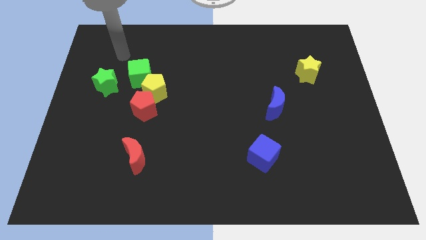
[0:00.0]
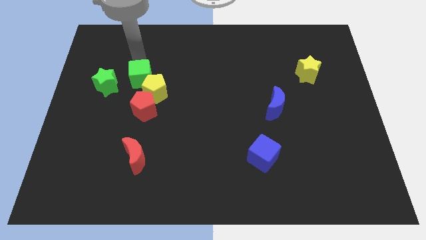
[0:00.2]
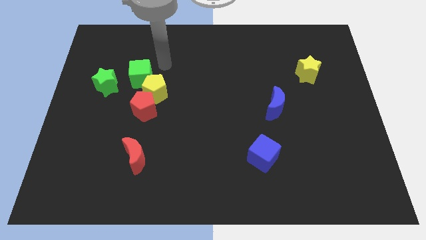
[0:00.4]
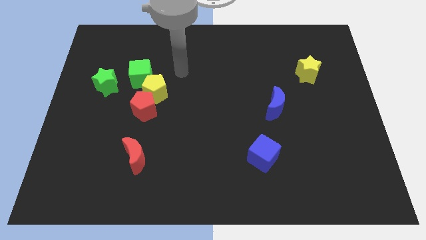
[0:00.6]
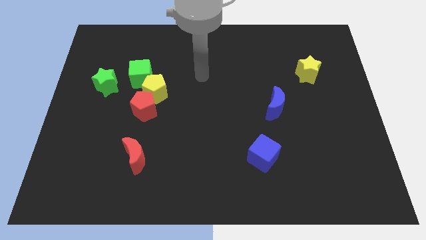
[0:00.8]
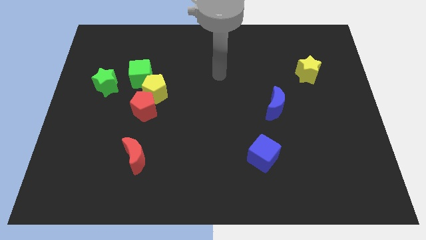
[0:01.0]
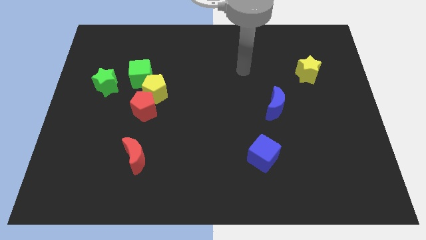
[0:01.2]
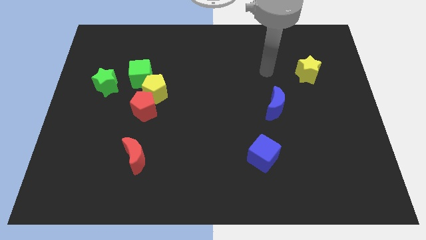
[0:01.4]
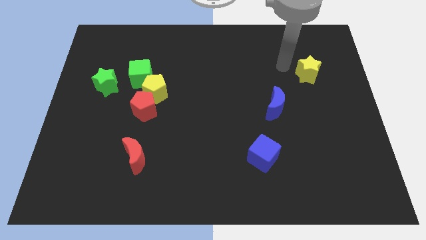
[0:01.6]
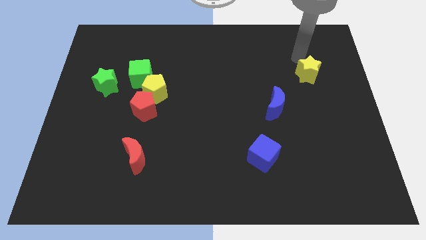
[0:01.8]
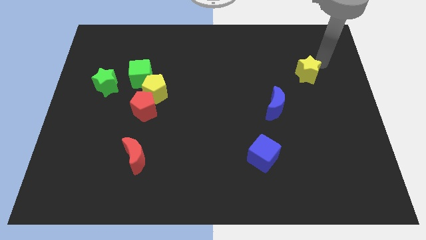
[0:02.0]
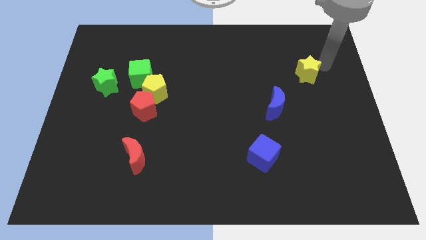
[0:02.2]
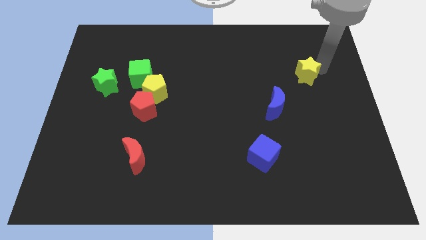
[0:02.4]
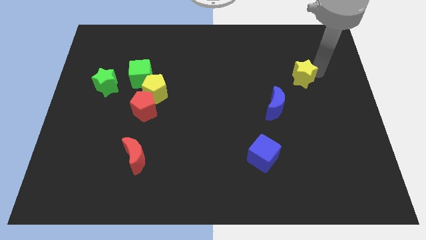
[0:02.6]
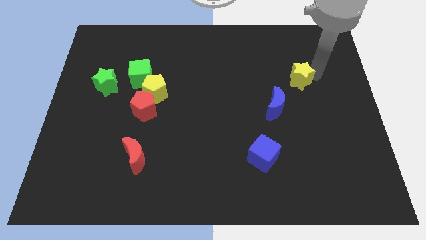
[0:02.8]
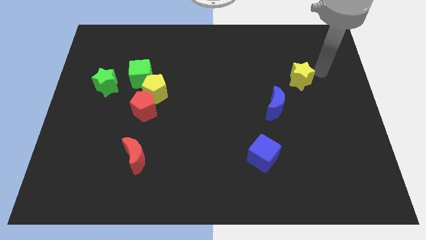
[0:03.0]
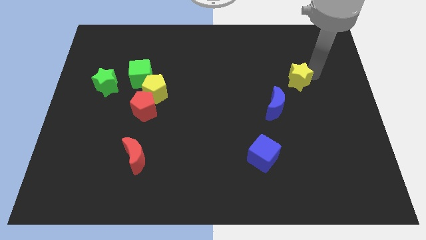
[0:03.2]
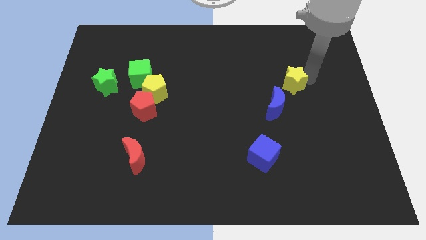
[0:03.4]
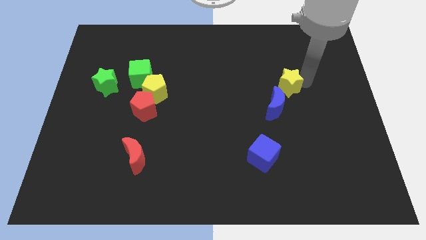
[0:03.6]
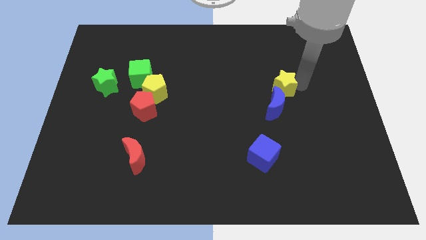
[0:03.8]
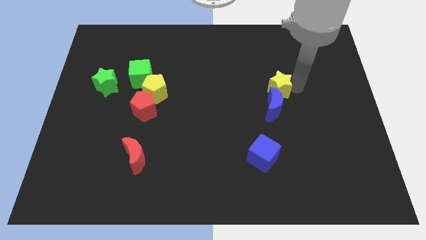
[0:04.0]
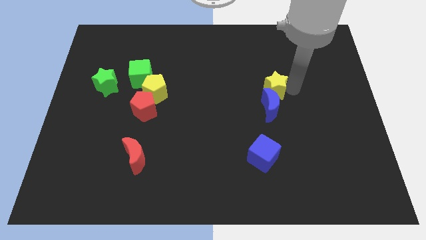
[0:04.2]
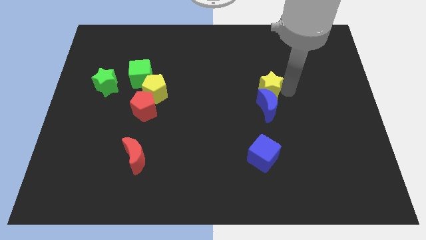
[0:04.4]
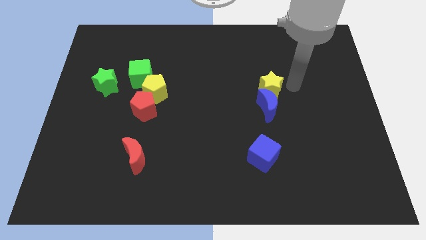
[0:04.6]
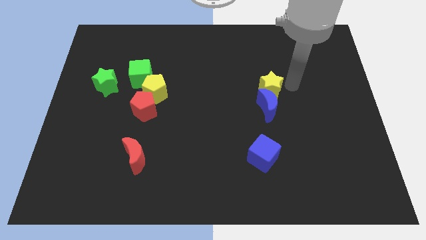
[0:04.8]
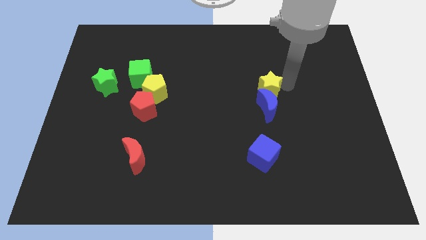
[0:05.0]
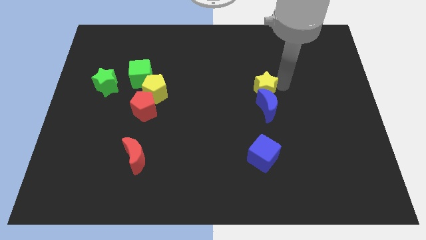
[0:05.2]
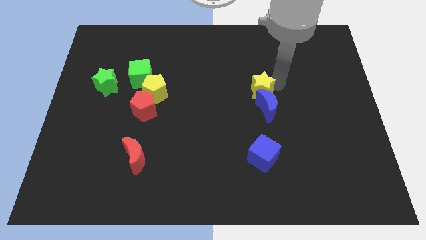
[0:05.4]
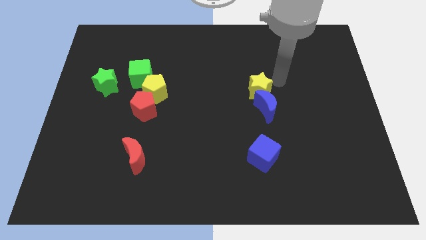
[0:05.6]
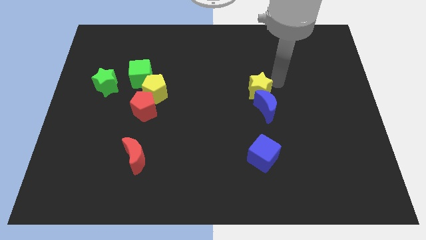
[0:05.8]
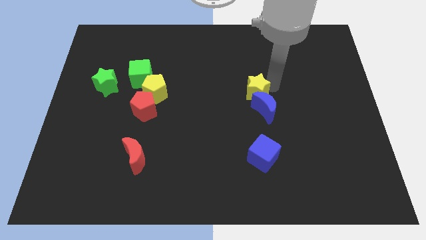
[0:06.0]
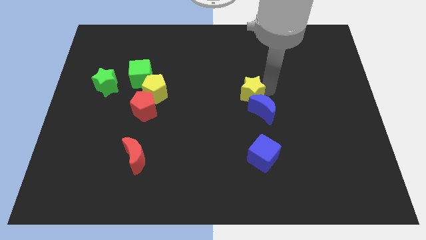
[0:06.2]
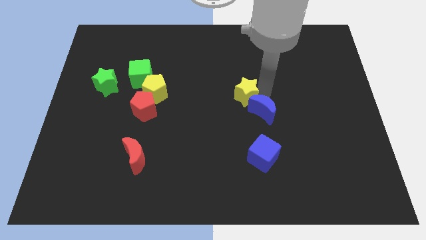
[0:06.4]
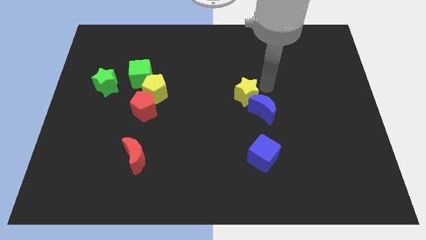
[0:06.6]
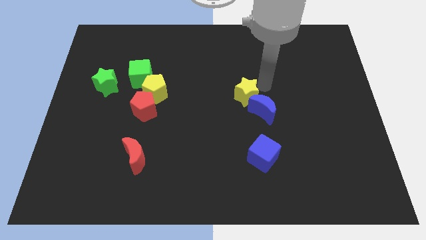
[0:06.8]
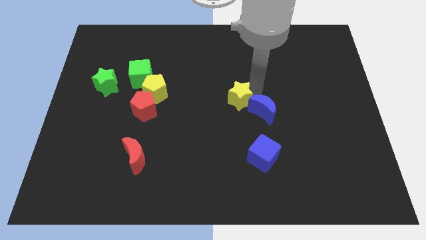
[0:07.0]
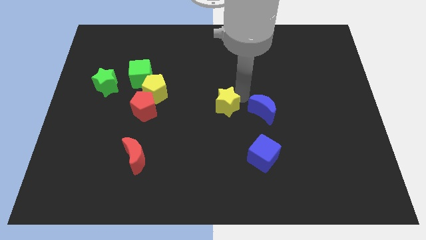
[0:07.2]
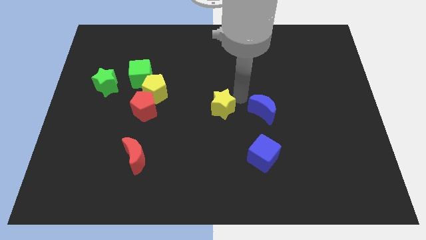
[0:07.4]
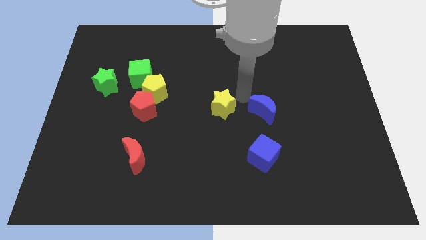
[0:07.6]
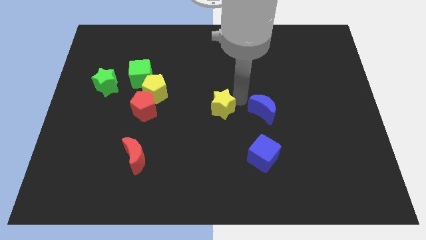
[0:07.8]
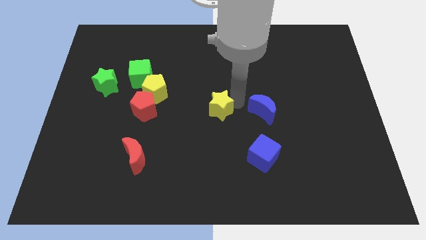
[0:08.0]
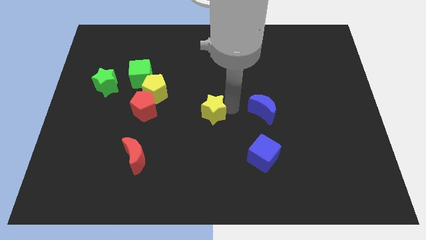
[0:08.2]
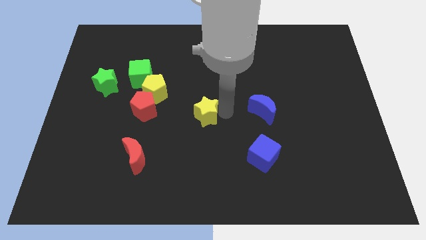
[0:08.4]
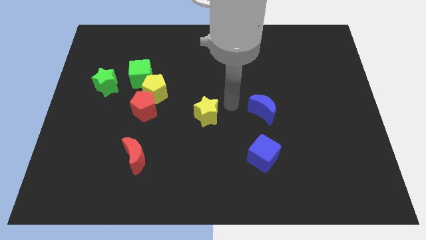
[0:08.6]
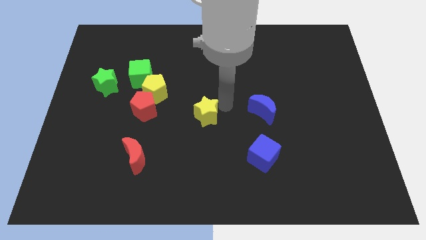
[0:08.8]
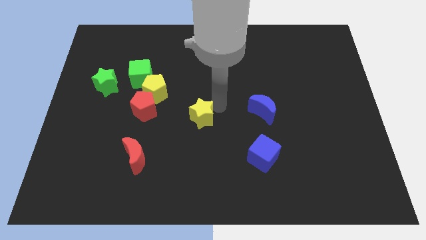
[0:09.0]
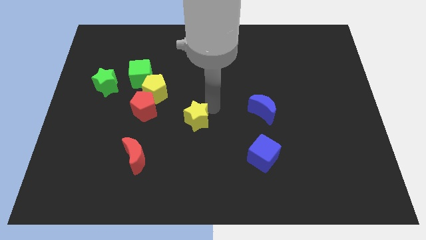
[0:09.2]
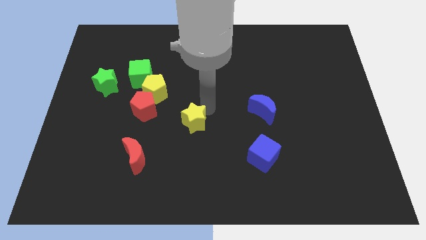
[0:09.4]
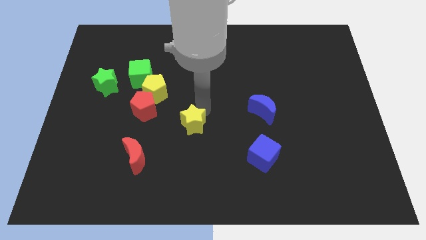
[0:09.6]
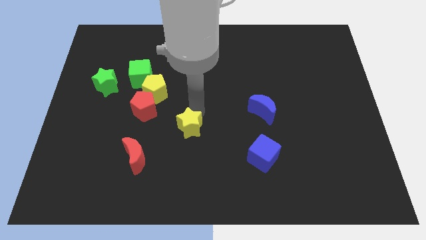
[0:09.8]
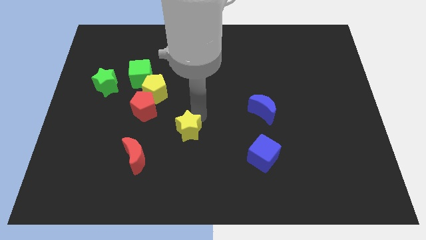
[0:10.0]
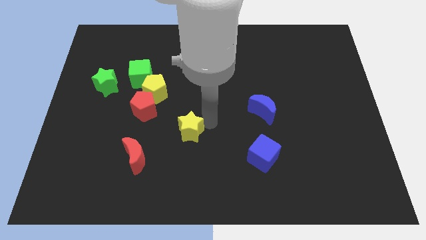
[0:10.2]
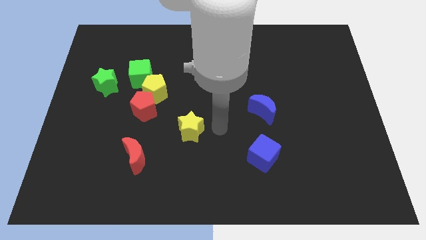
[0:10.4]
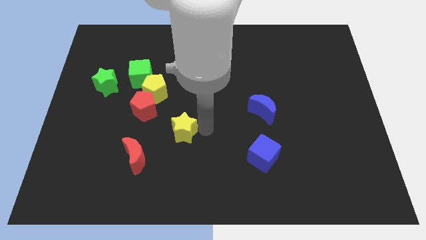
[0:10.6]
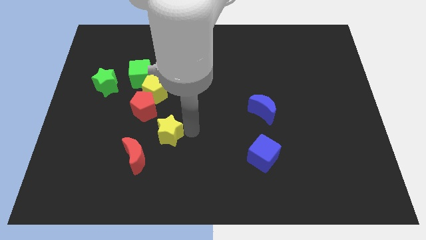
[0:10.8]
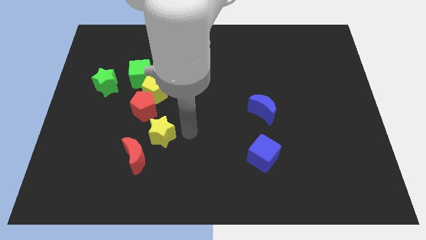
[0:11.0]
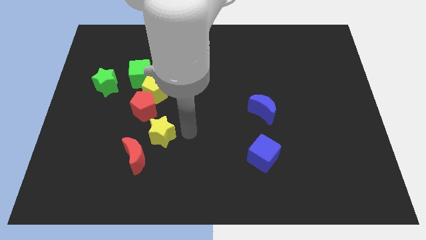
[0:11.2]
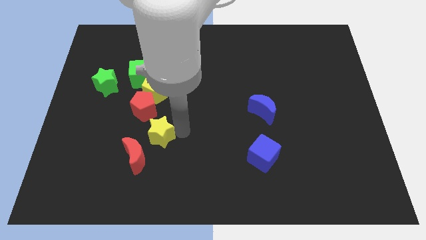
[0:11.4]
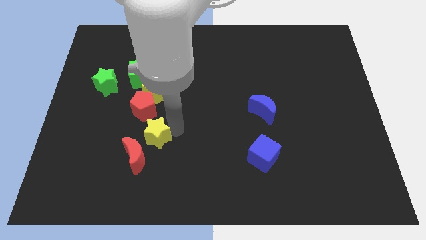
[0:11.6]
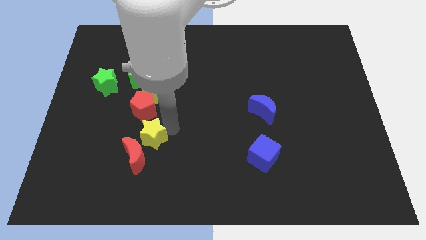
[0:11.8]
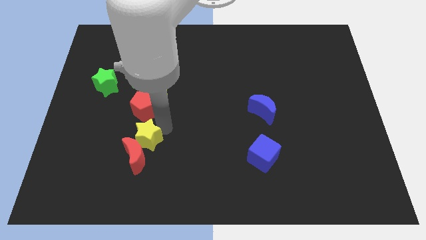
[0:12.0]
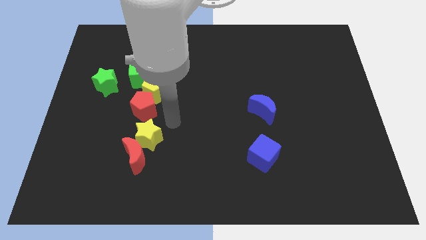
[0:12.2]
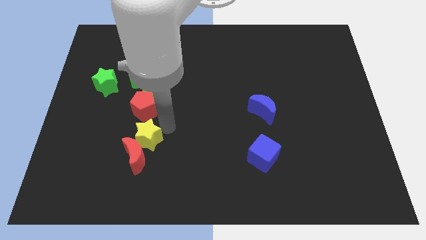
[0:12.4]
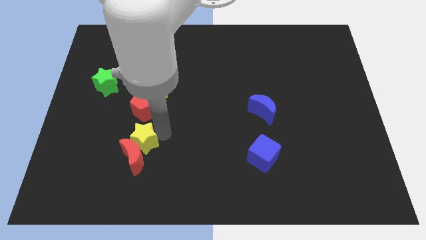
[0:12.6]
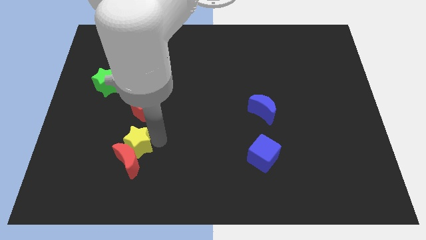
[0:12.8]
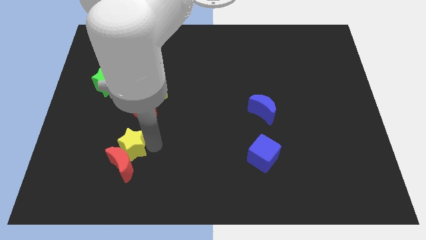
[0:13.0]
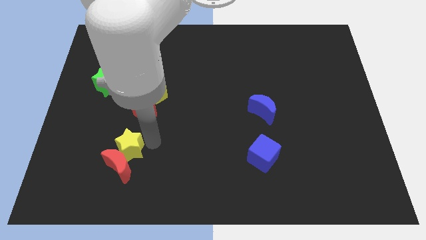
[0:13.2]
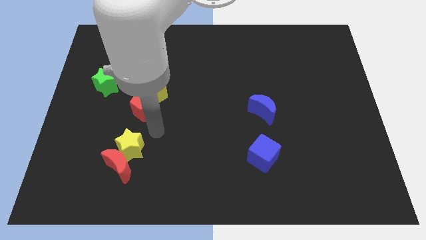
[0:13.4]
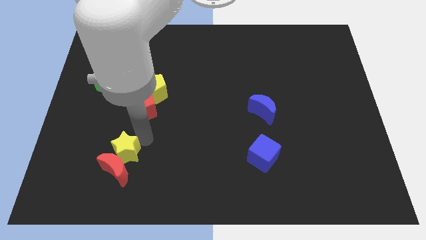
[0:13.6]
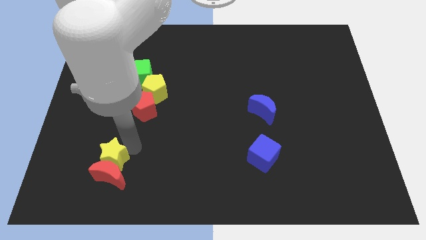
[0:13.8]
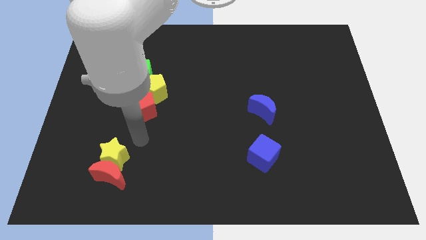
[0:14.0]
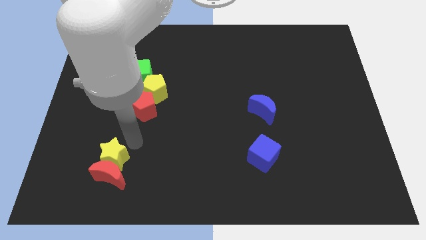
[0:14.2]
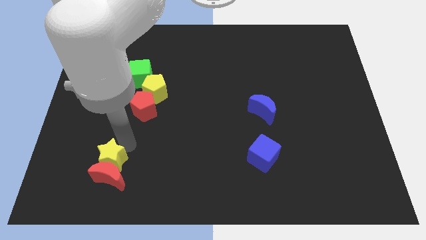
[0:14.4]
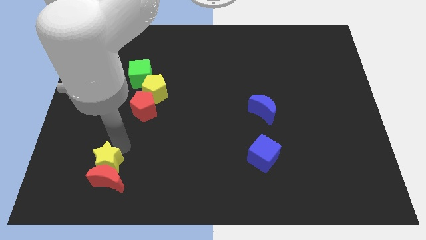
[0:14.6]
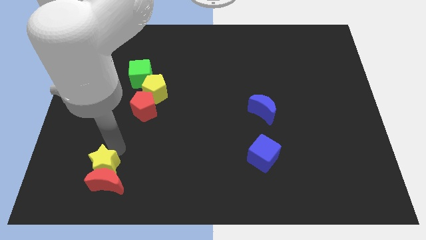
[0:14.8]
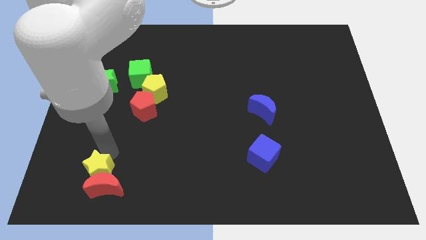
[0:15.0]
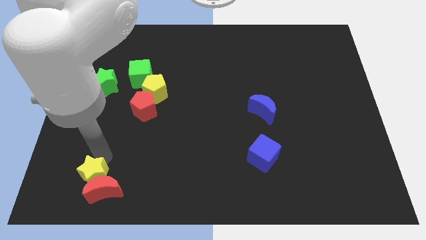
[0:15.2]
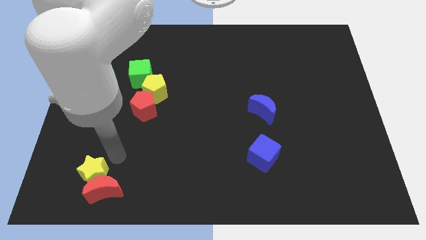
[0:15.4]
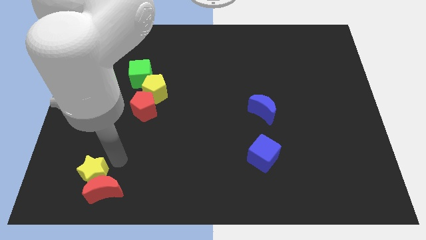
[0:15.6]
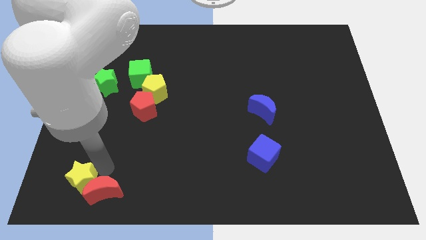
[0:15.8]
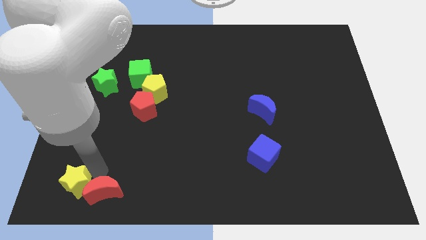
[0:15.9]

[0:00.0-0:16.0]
push the yellow star to the bottom left
